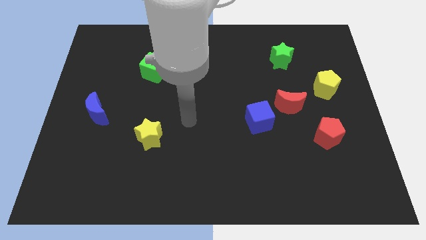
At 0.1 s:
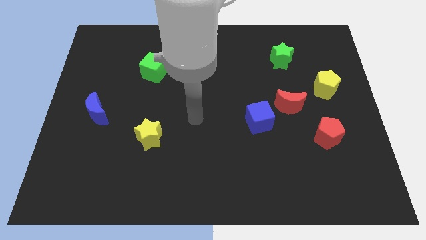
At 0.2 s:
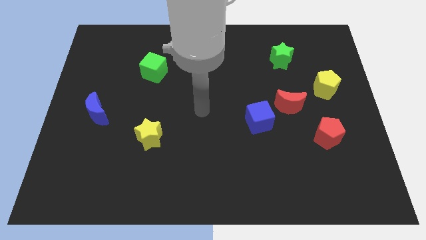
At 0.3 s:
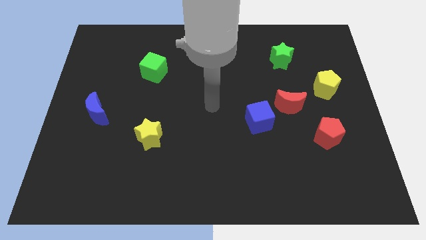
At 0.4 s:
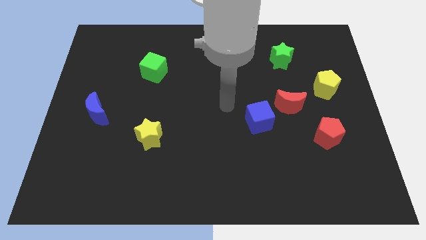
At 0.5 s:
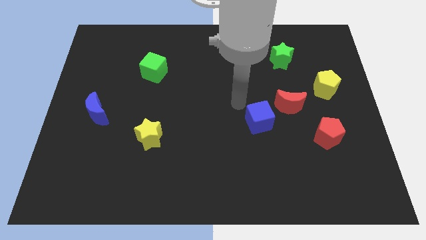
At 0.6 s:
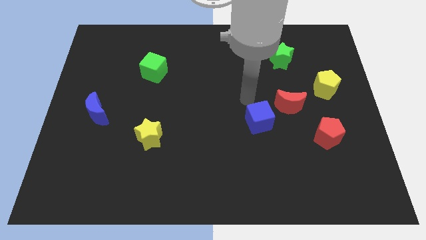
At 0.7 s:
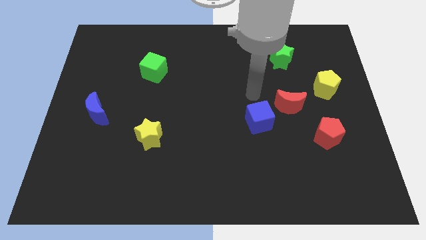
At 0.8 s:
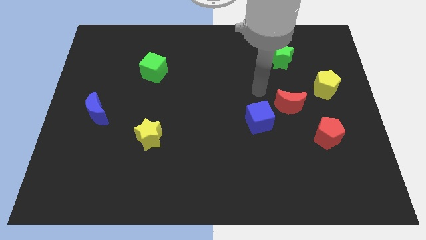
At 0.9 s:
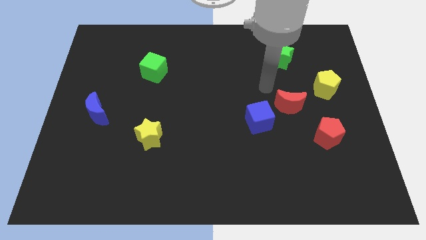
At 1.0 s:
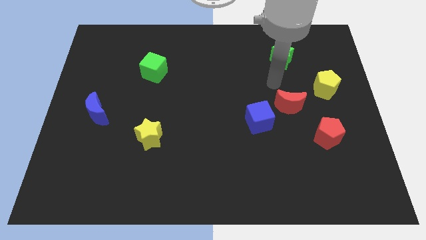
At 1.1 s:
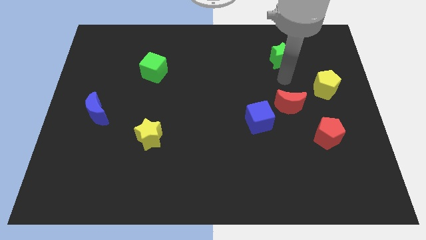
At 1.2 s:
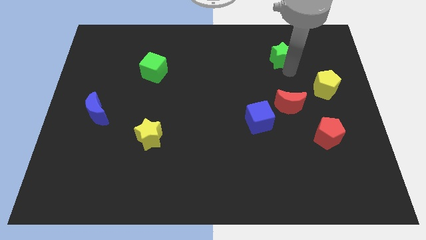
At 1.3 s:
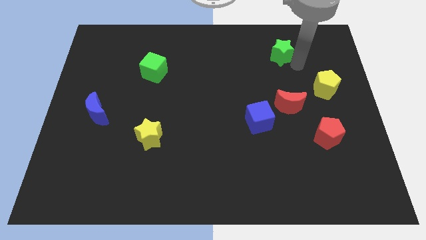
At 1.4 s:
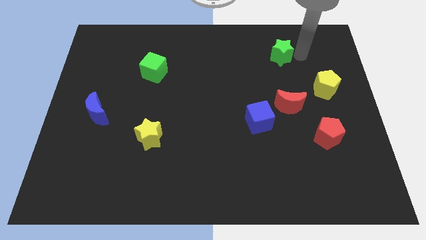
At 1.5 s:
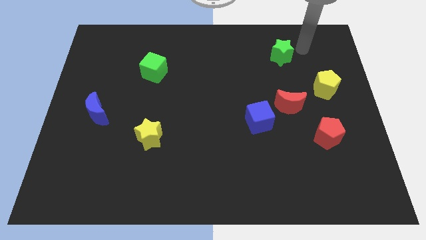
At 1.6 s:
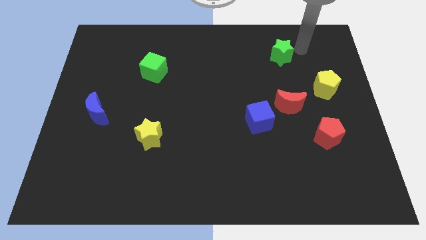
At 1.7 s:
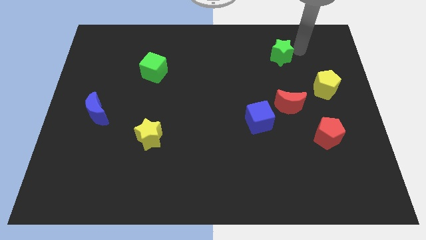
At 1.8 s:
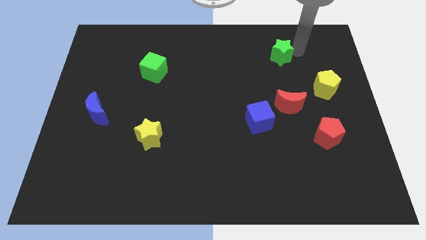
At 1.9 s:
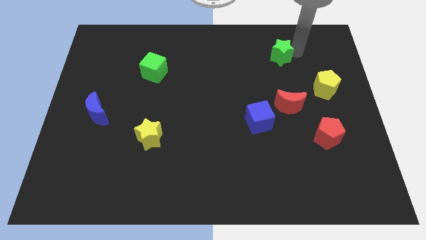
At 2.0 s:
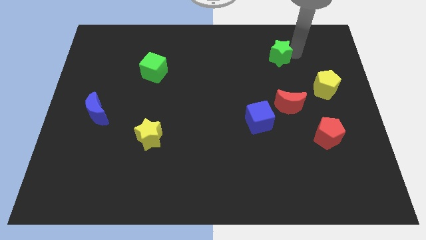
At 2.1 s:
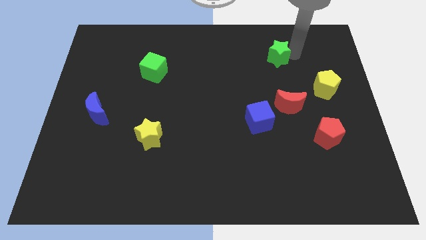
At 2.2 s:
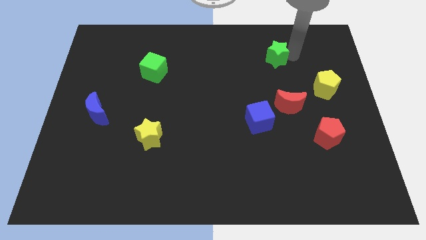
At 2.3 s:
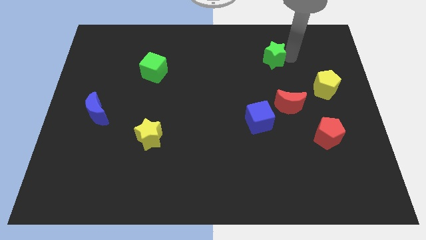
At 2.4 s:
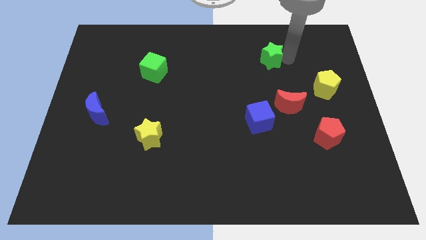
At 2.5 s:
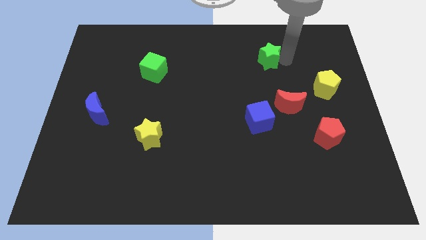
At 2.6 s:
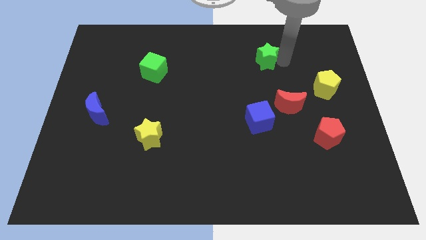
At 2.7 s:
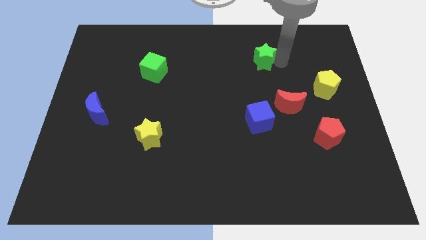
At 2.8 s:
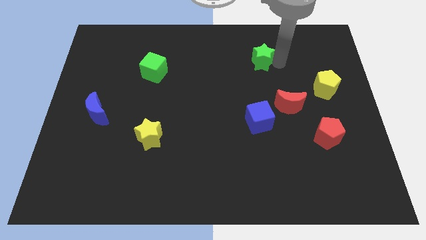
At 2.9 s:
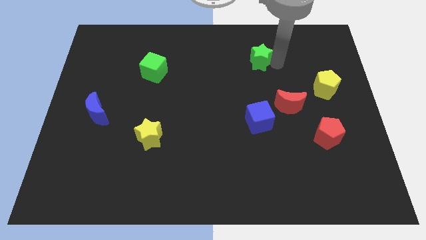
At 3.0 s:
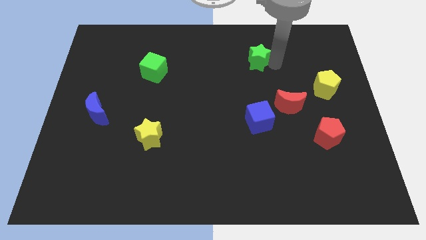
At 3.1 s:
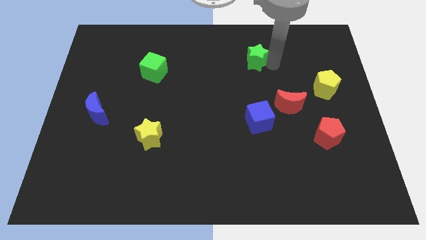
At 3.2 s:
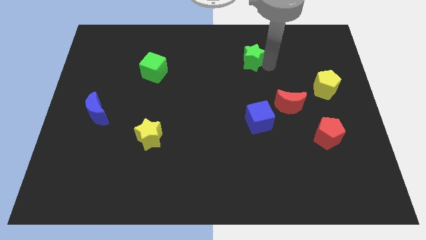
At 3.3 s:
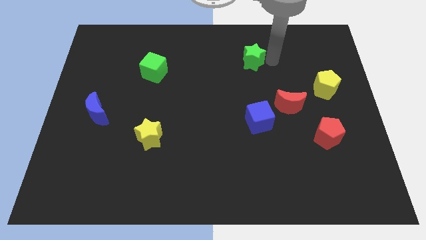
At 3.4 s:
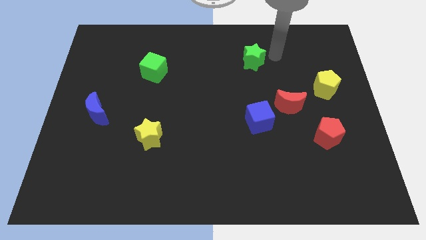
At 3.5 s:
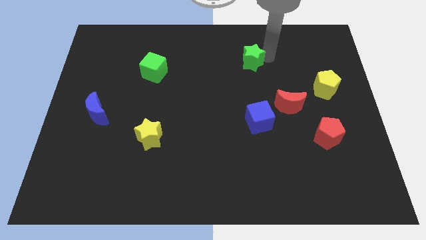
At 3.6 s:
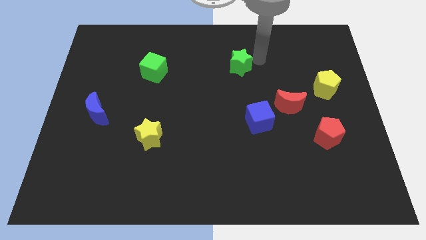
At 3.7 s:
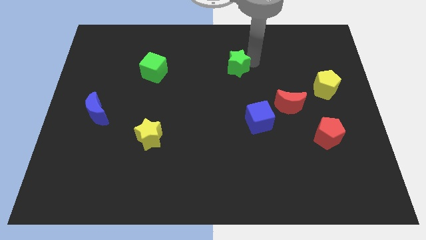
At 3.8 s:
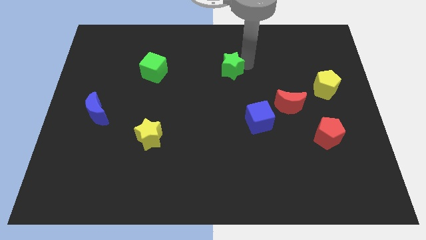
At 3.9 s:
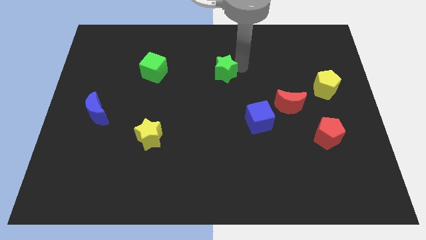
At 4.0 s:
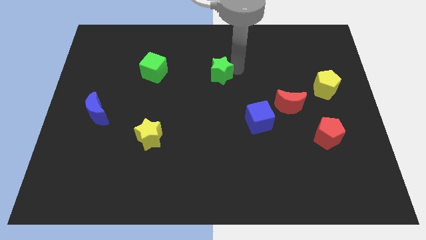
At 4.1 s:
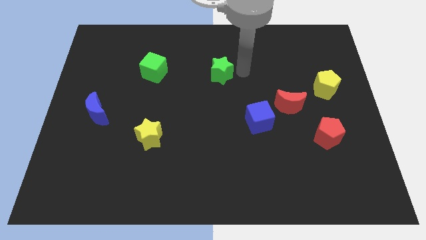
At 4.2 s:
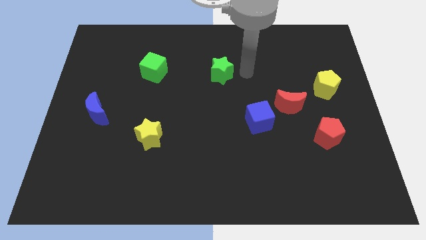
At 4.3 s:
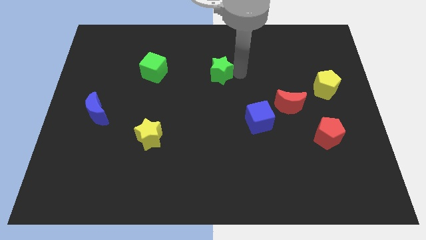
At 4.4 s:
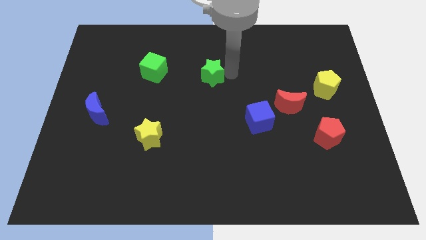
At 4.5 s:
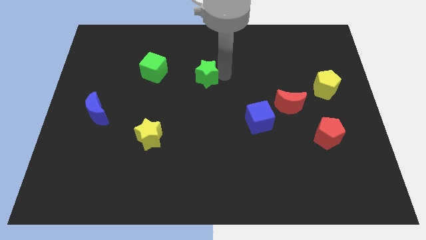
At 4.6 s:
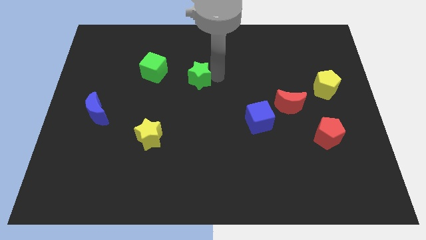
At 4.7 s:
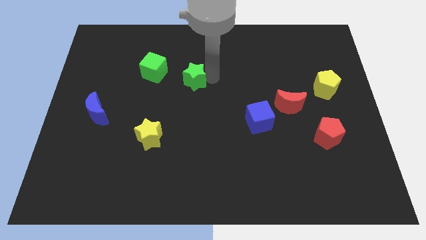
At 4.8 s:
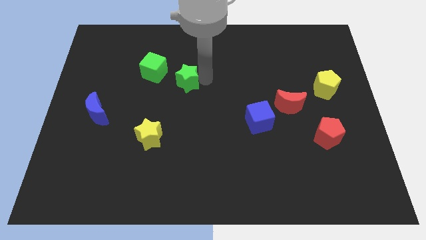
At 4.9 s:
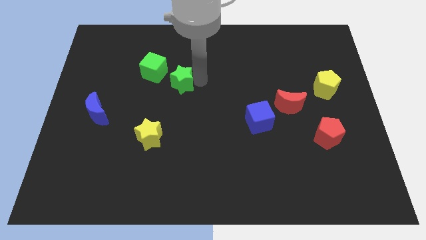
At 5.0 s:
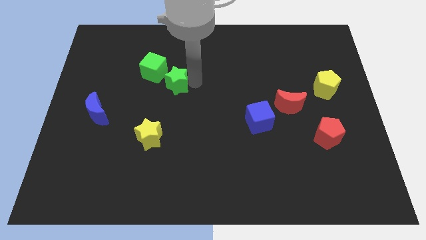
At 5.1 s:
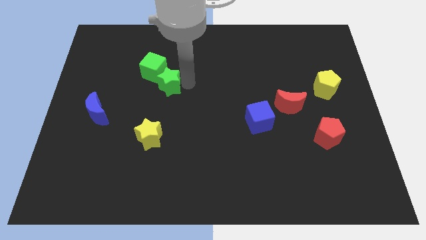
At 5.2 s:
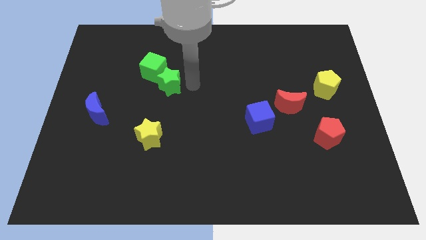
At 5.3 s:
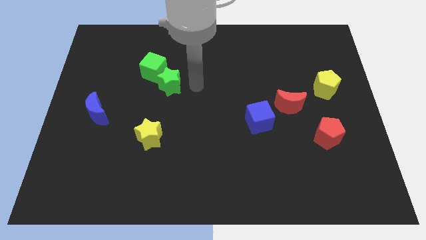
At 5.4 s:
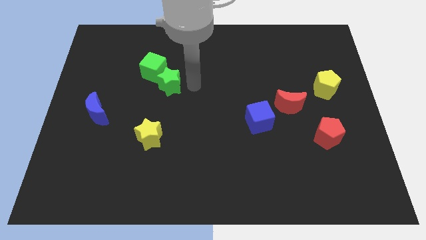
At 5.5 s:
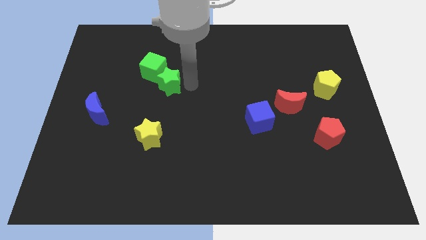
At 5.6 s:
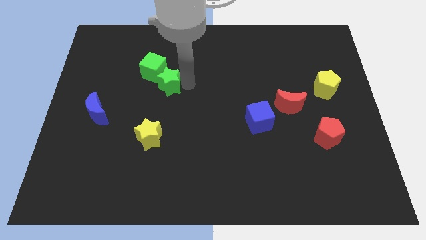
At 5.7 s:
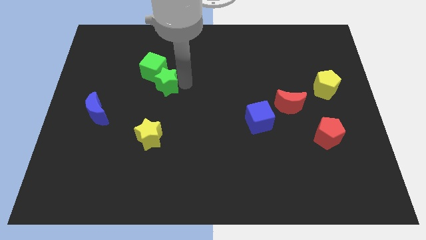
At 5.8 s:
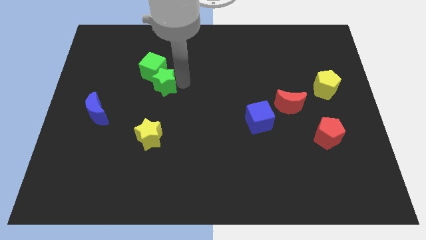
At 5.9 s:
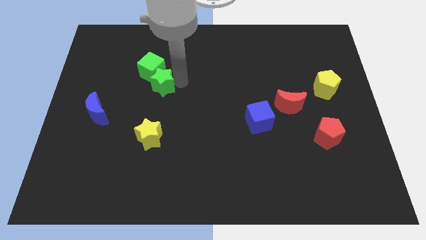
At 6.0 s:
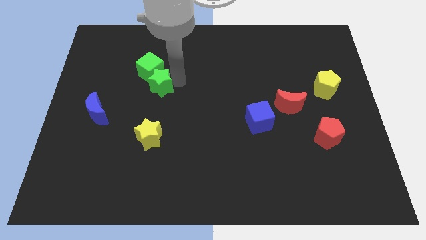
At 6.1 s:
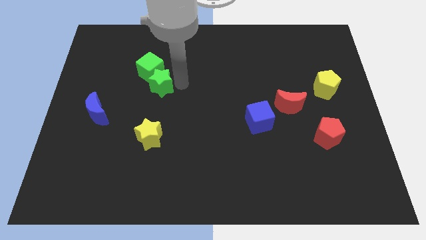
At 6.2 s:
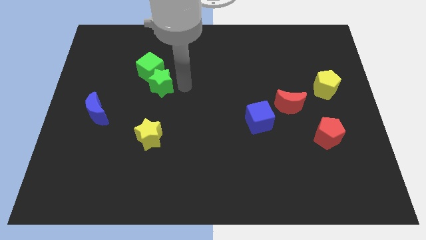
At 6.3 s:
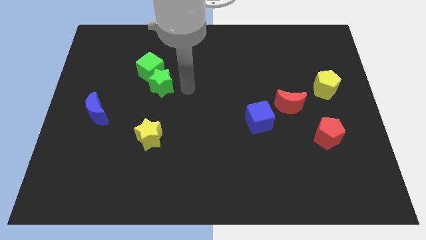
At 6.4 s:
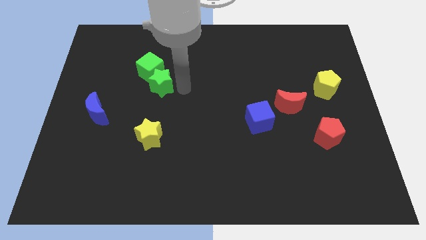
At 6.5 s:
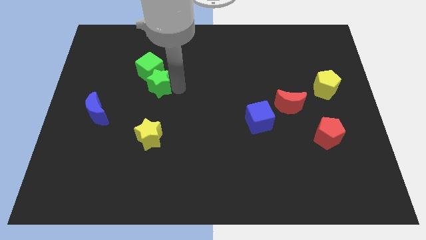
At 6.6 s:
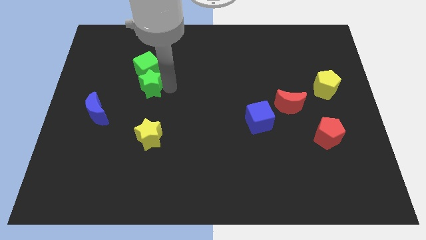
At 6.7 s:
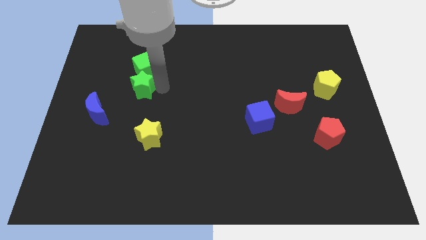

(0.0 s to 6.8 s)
slide the green star diagonally down and to the left of the green cube

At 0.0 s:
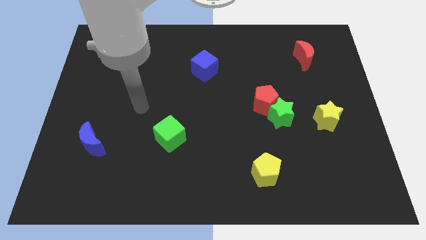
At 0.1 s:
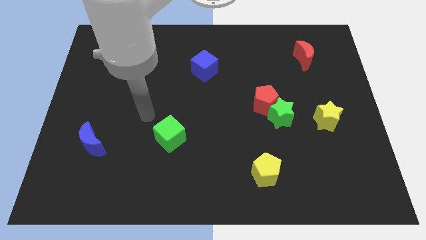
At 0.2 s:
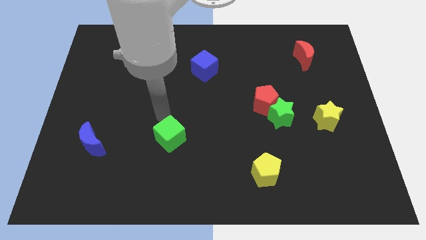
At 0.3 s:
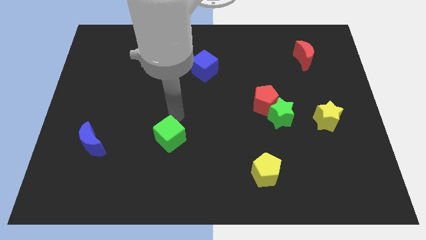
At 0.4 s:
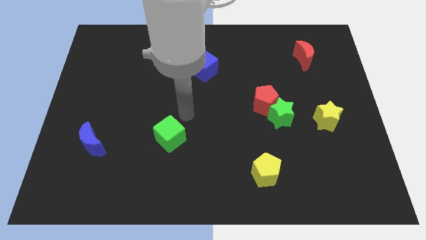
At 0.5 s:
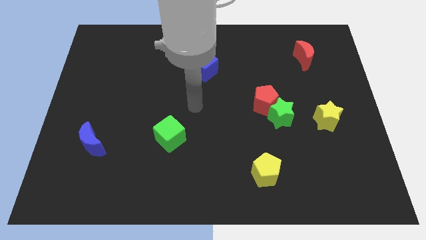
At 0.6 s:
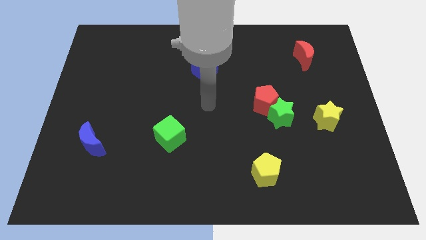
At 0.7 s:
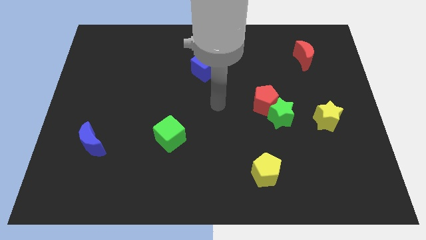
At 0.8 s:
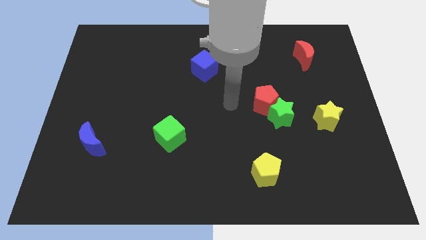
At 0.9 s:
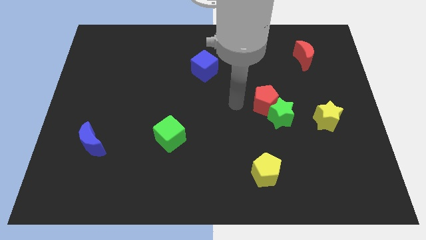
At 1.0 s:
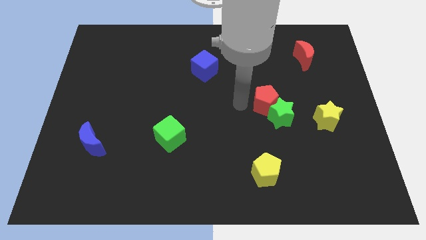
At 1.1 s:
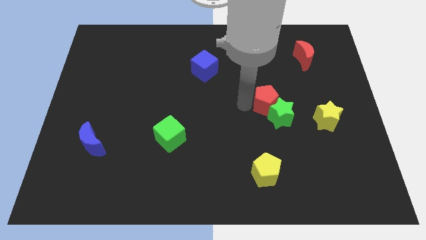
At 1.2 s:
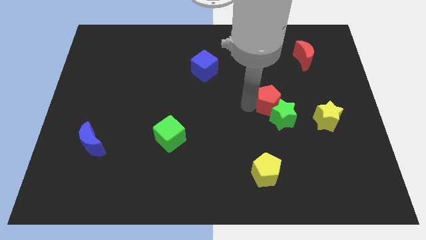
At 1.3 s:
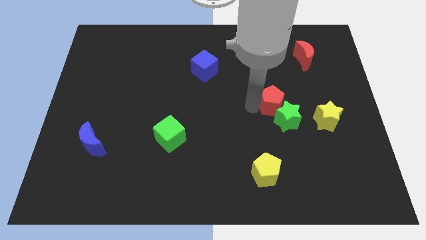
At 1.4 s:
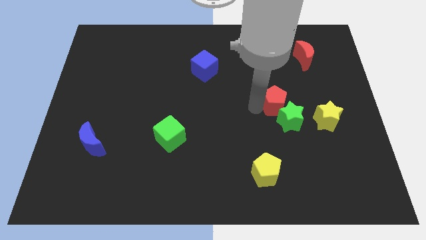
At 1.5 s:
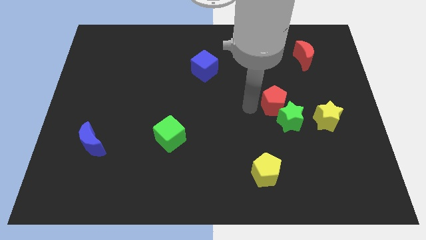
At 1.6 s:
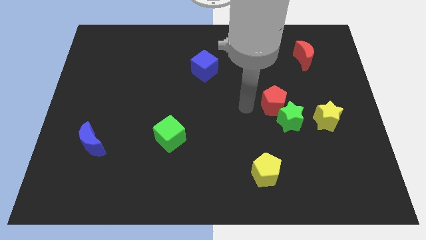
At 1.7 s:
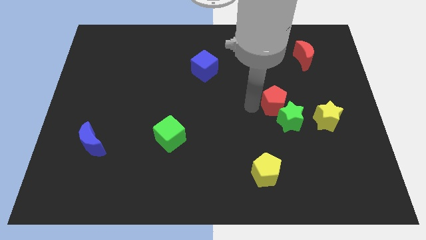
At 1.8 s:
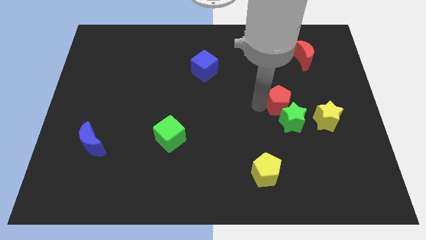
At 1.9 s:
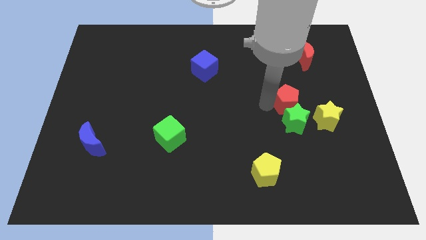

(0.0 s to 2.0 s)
put the red pentagon to the top left side of the yellow star
